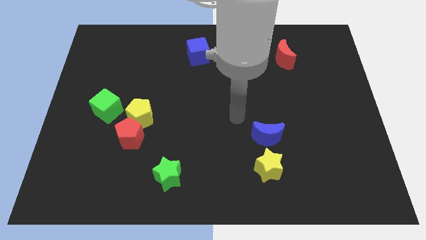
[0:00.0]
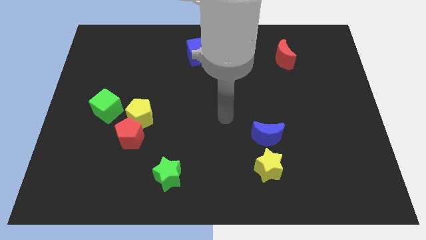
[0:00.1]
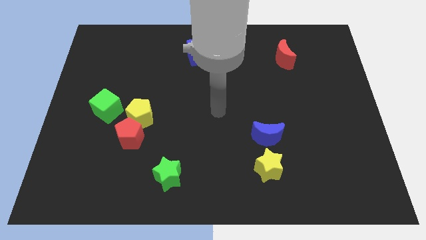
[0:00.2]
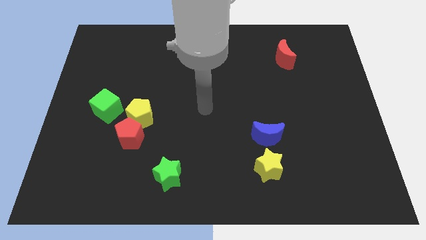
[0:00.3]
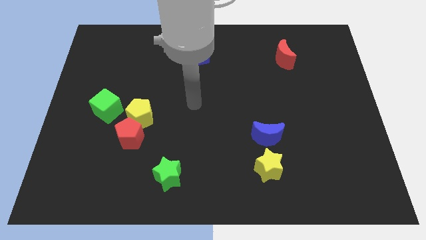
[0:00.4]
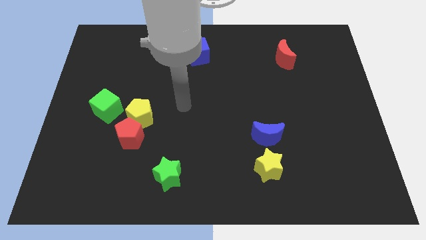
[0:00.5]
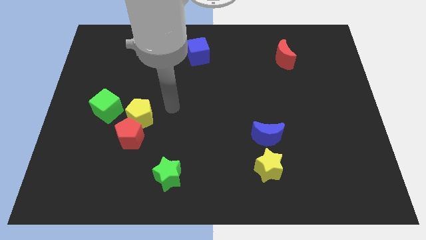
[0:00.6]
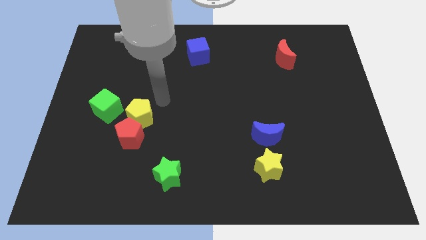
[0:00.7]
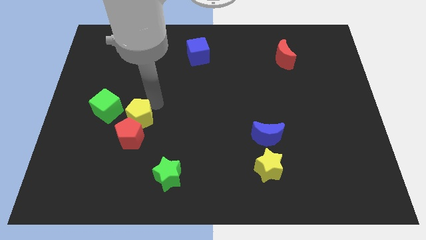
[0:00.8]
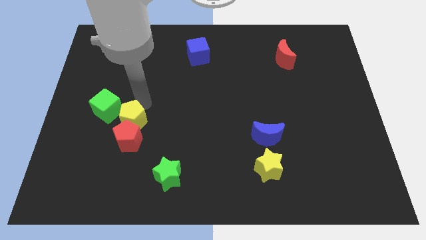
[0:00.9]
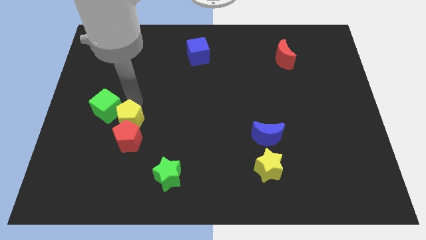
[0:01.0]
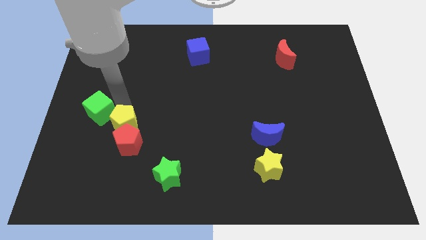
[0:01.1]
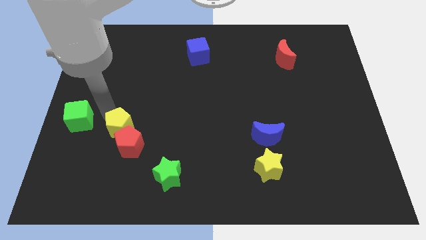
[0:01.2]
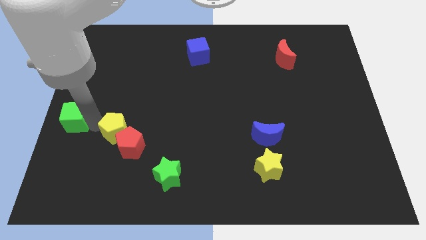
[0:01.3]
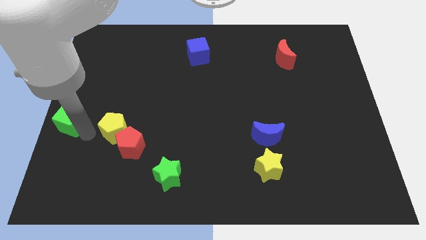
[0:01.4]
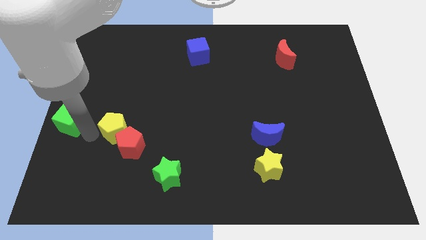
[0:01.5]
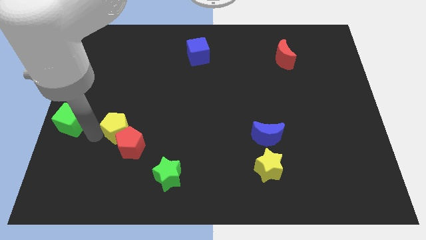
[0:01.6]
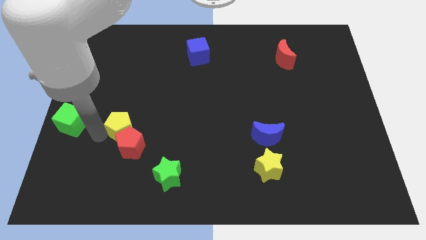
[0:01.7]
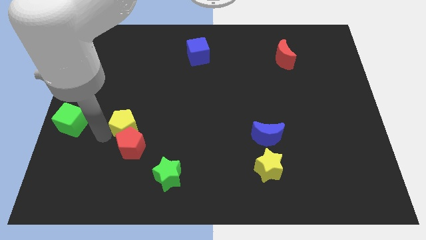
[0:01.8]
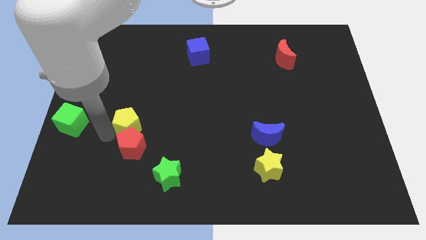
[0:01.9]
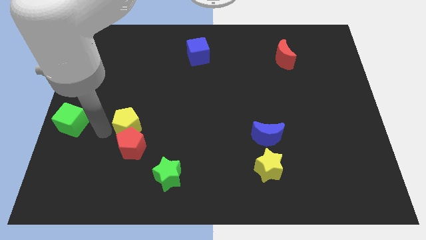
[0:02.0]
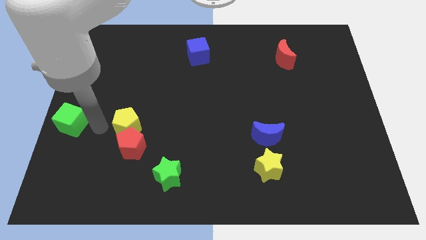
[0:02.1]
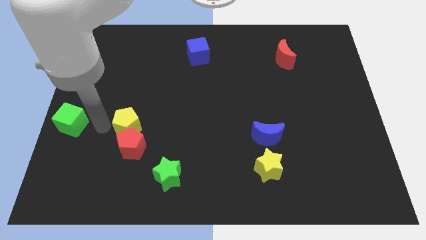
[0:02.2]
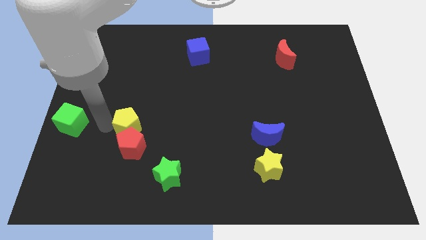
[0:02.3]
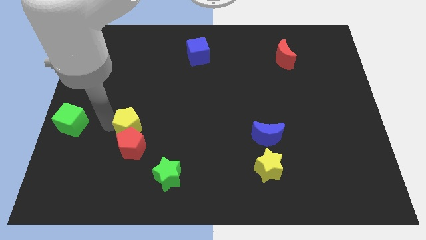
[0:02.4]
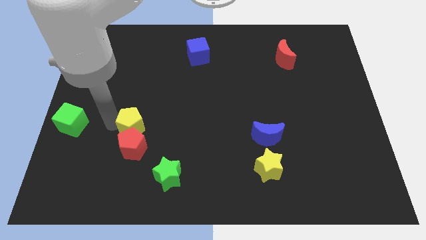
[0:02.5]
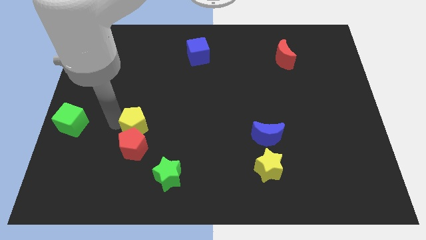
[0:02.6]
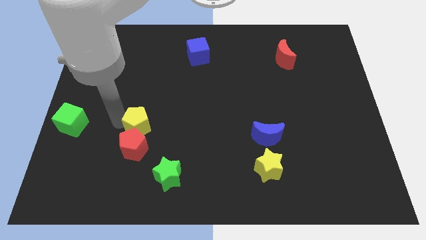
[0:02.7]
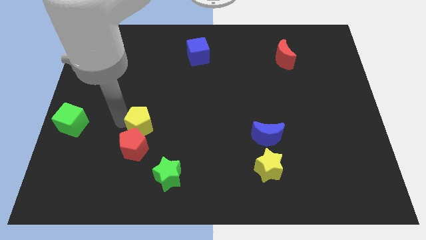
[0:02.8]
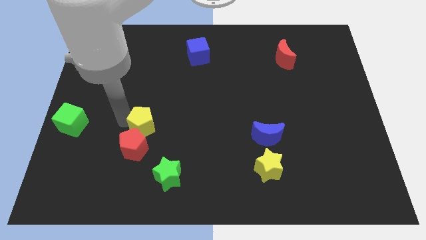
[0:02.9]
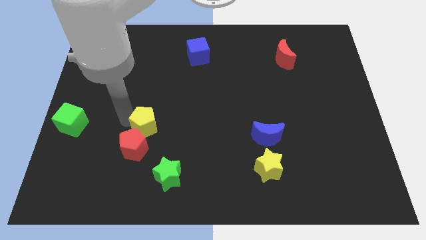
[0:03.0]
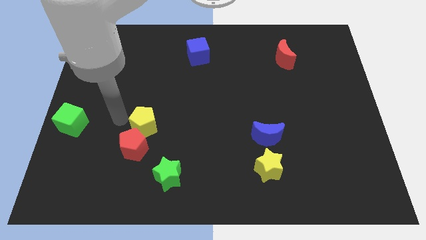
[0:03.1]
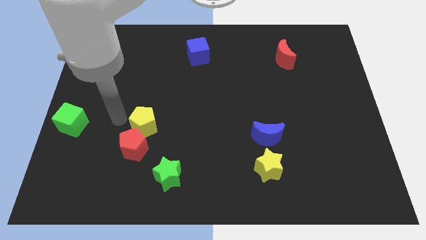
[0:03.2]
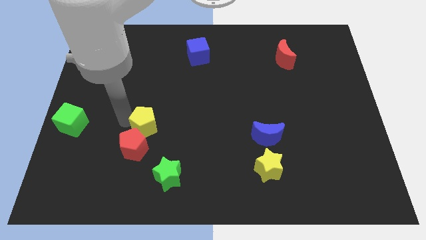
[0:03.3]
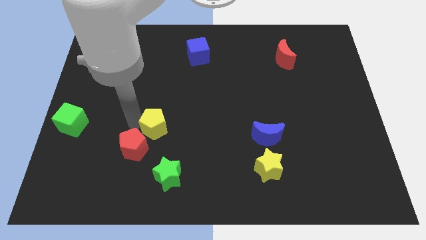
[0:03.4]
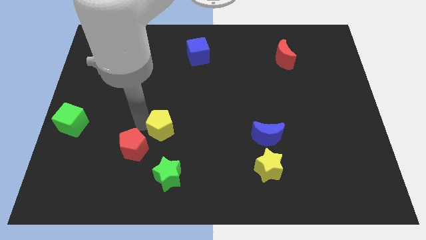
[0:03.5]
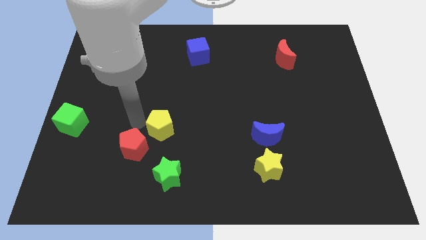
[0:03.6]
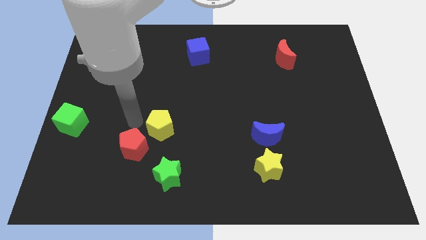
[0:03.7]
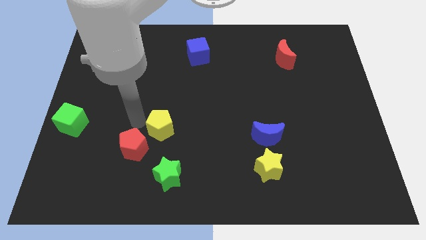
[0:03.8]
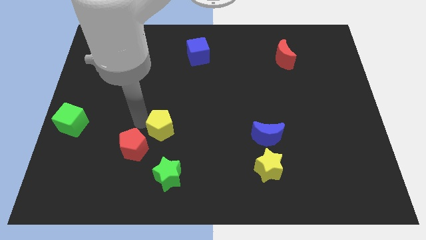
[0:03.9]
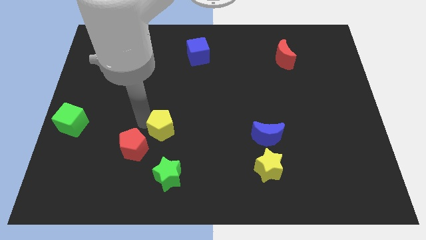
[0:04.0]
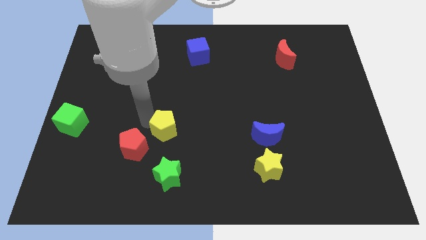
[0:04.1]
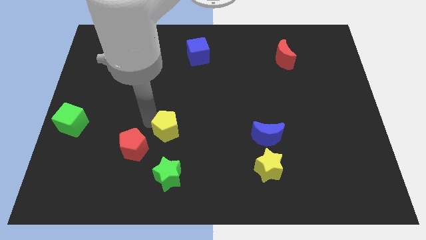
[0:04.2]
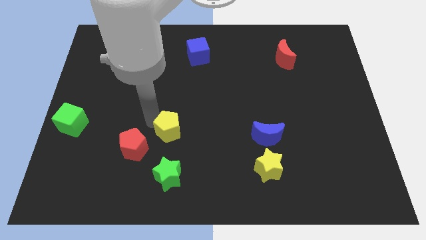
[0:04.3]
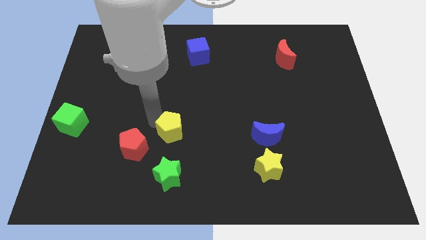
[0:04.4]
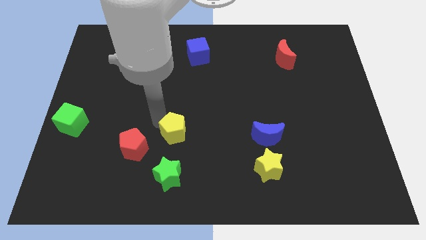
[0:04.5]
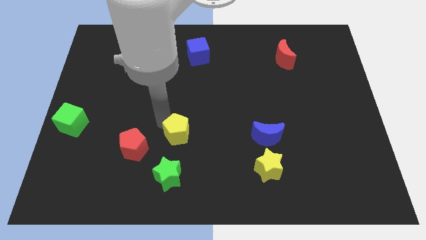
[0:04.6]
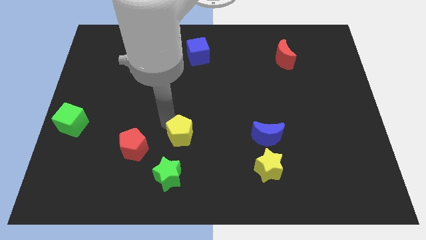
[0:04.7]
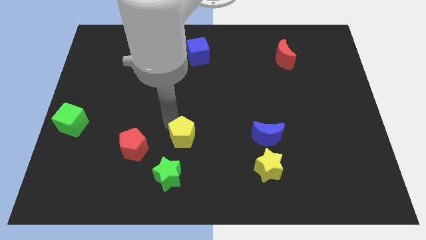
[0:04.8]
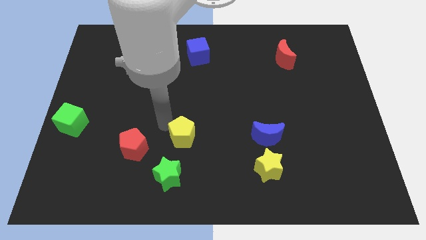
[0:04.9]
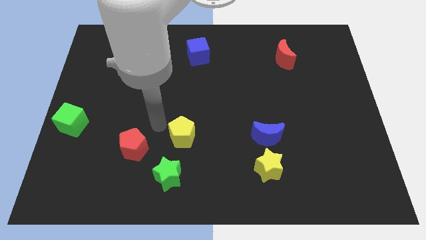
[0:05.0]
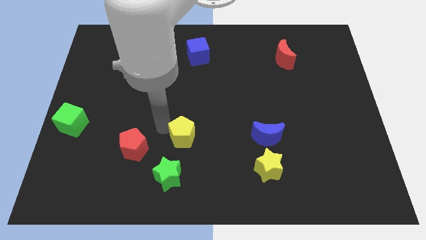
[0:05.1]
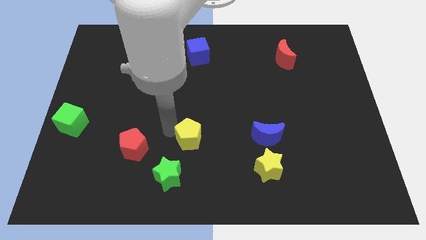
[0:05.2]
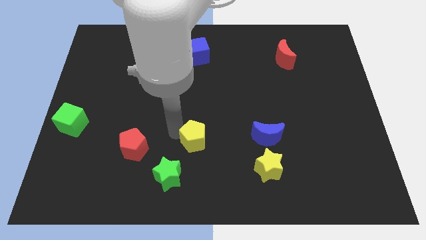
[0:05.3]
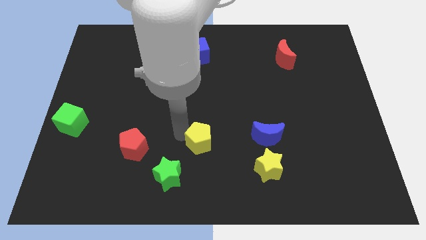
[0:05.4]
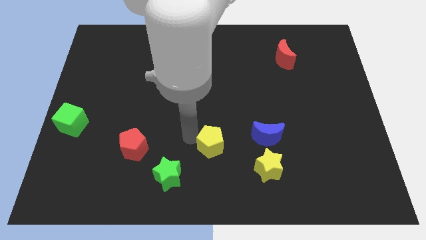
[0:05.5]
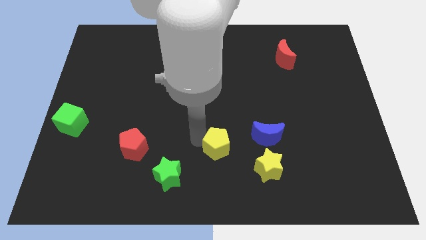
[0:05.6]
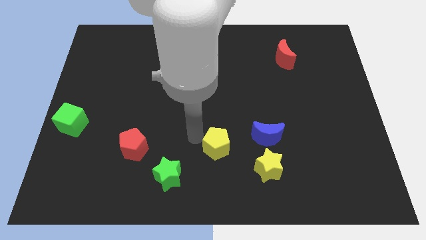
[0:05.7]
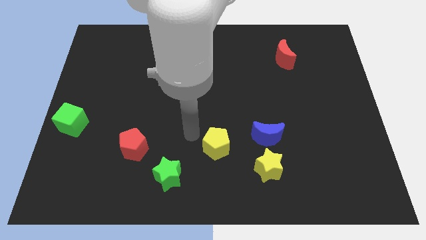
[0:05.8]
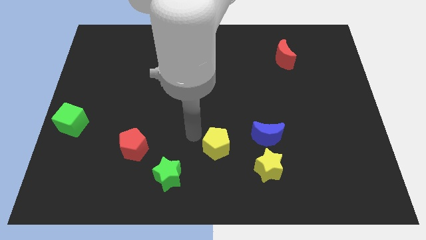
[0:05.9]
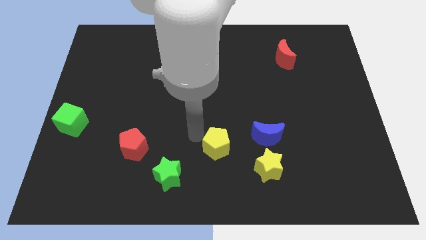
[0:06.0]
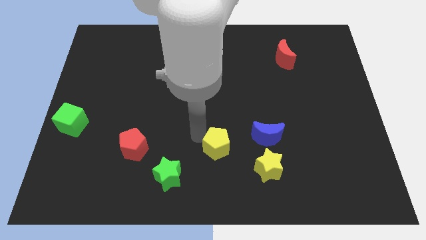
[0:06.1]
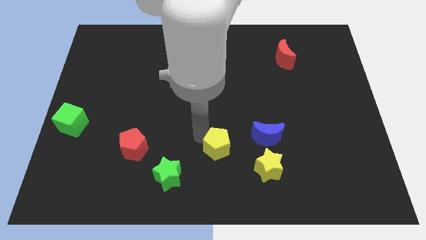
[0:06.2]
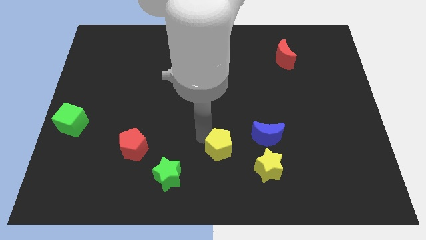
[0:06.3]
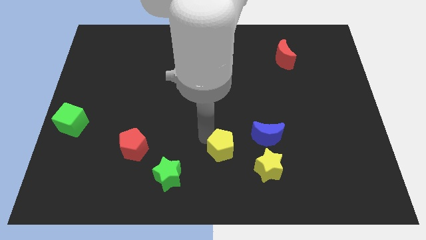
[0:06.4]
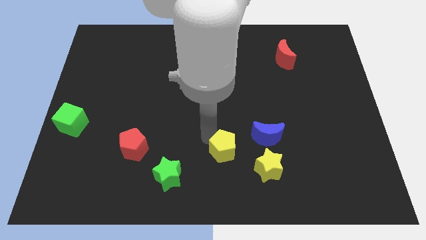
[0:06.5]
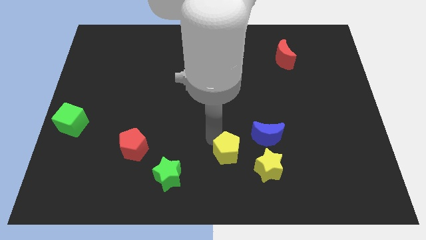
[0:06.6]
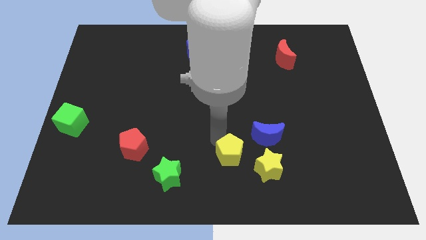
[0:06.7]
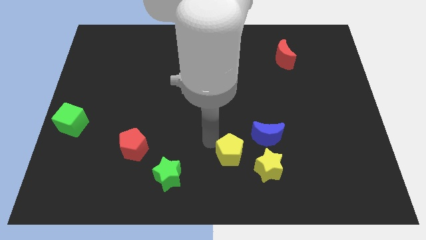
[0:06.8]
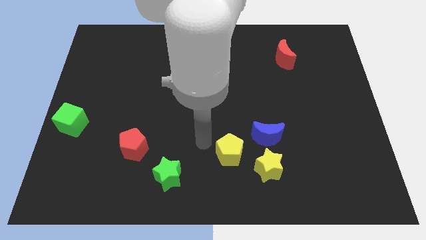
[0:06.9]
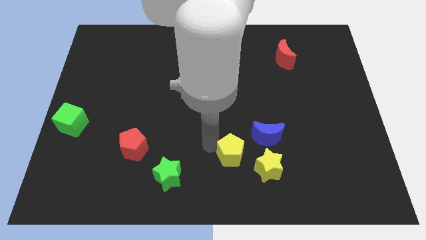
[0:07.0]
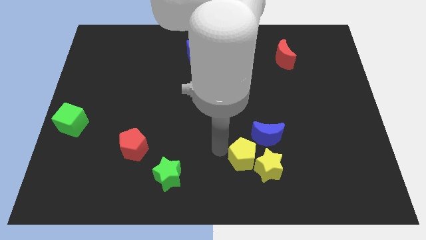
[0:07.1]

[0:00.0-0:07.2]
put the yellow pentagon towards the yellow star

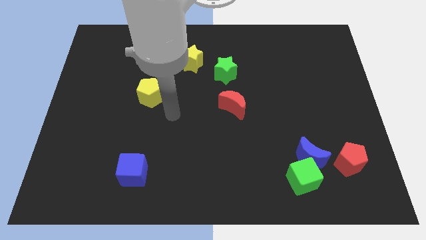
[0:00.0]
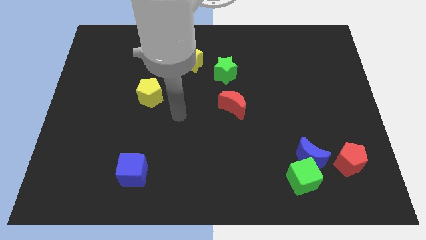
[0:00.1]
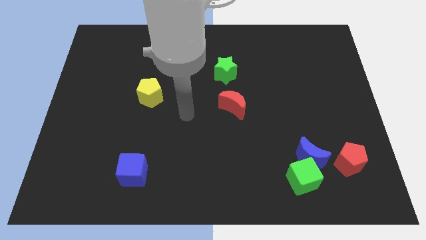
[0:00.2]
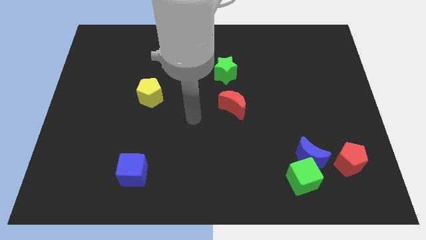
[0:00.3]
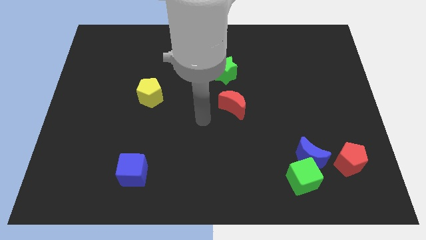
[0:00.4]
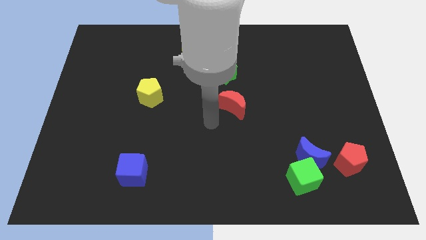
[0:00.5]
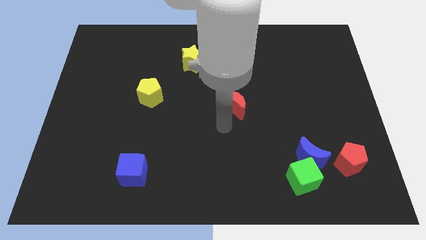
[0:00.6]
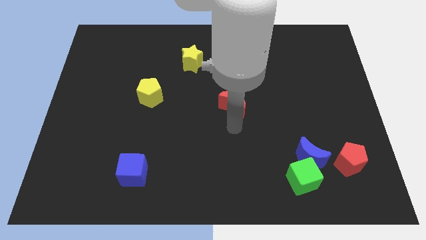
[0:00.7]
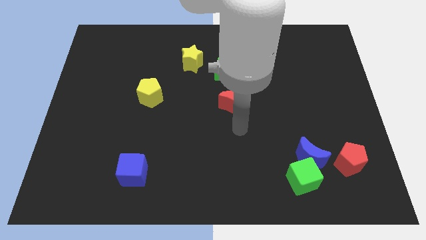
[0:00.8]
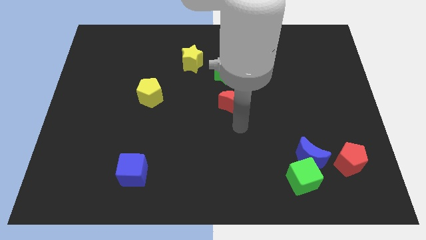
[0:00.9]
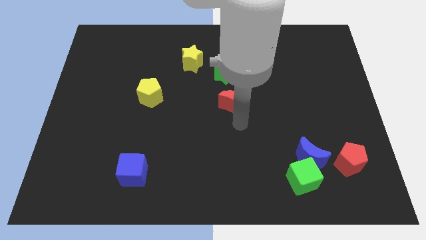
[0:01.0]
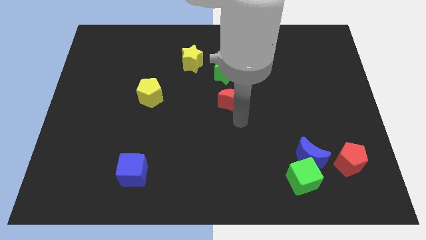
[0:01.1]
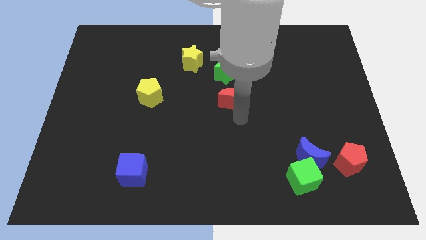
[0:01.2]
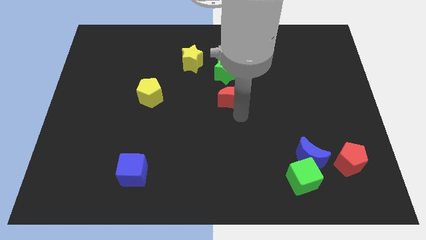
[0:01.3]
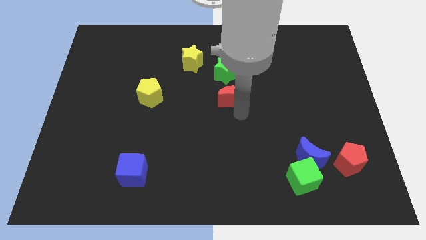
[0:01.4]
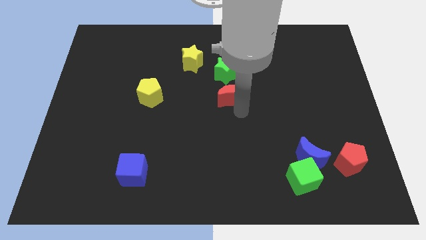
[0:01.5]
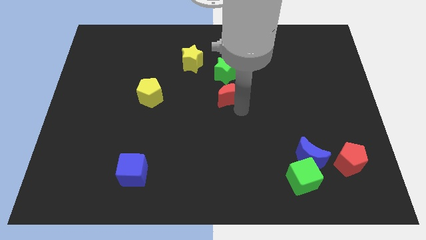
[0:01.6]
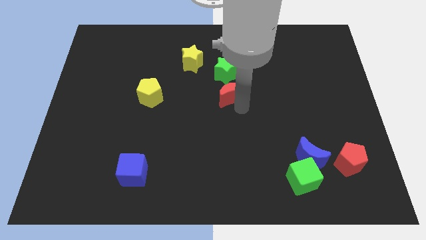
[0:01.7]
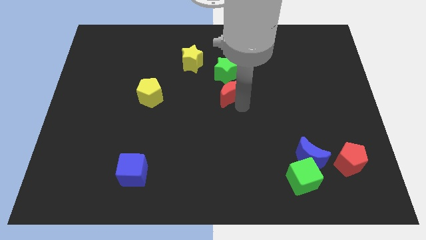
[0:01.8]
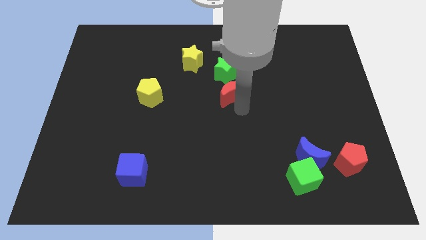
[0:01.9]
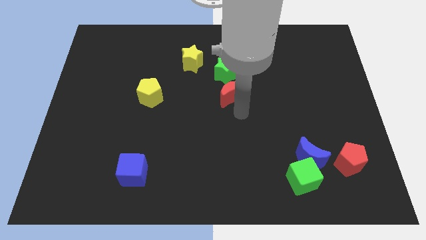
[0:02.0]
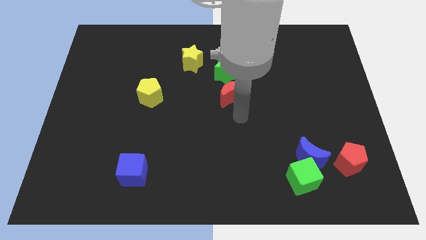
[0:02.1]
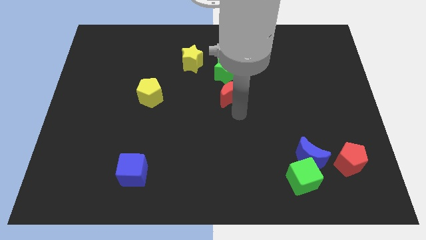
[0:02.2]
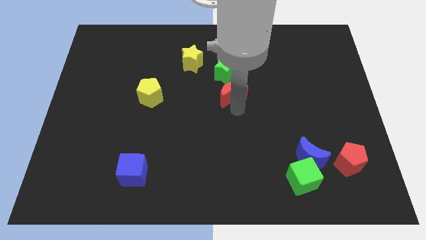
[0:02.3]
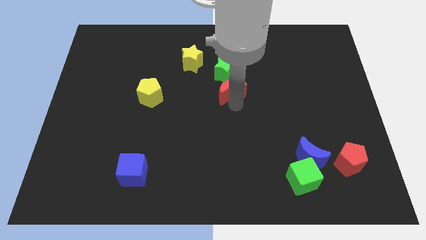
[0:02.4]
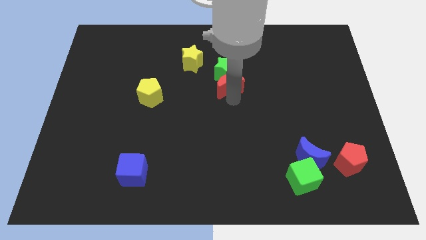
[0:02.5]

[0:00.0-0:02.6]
slide the red moon towards the green star
